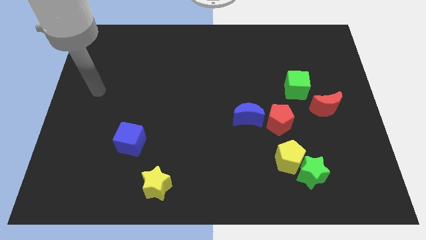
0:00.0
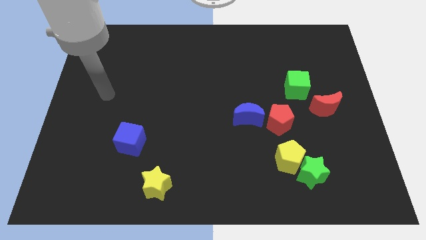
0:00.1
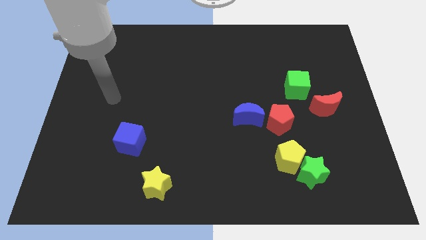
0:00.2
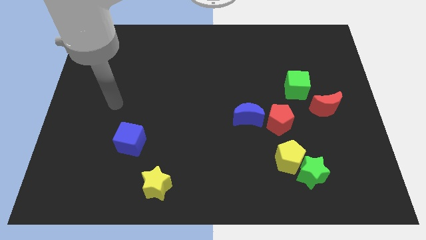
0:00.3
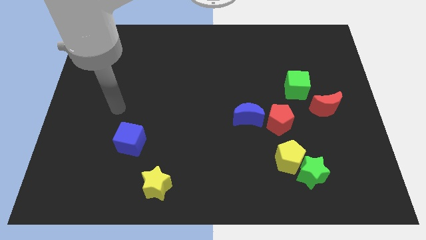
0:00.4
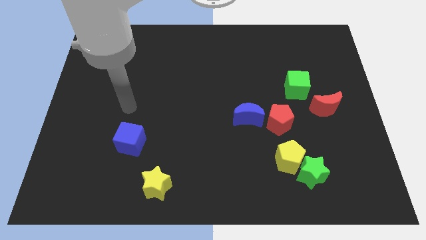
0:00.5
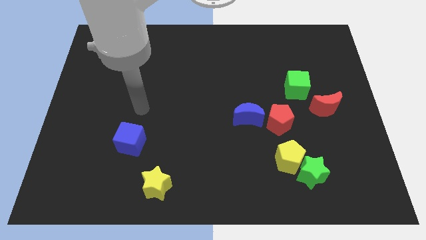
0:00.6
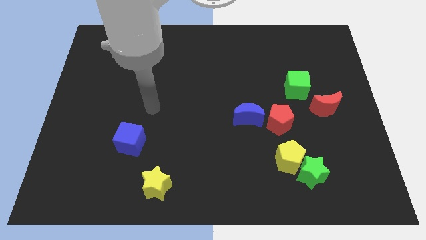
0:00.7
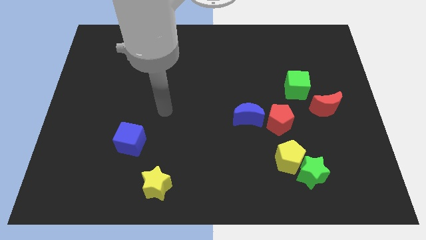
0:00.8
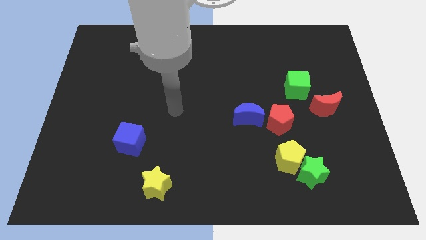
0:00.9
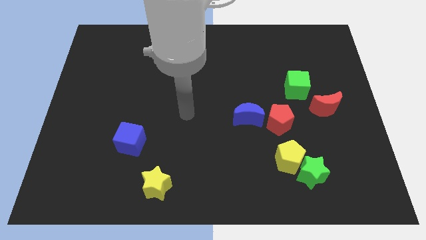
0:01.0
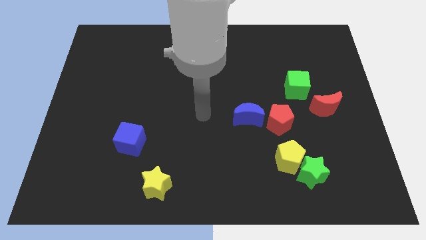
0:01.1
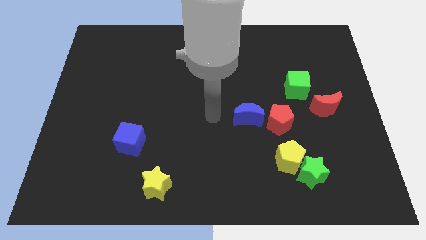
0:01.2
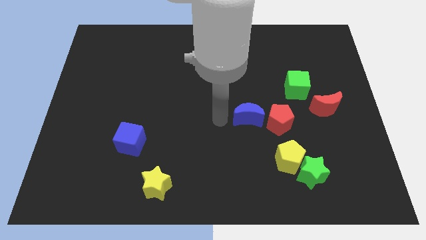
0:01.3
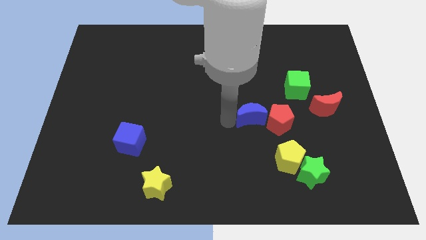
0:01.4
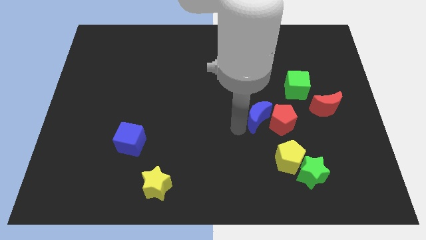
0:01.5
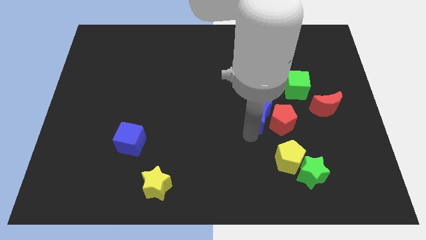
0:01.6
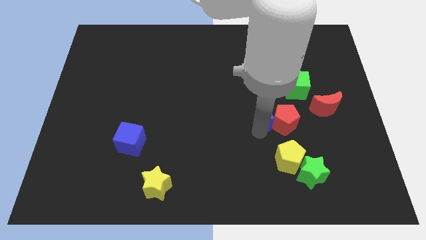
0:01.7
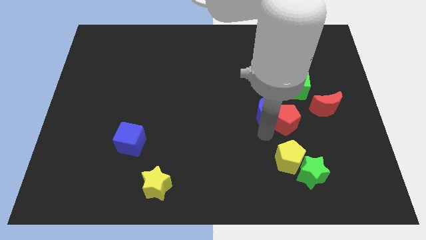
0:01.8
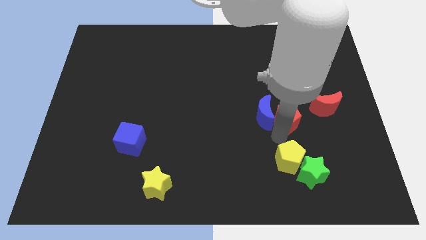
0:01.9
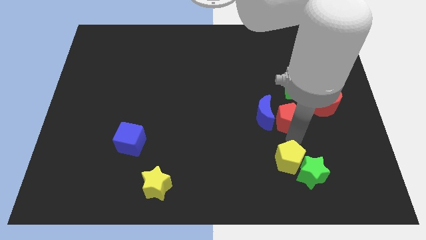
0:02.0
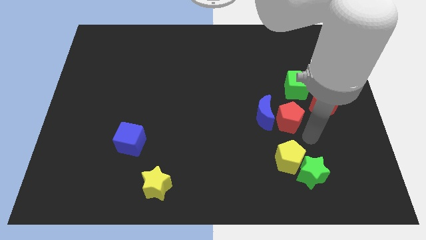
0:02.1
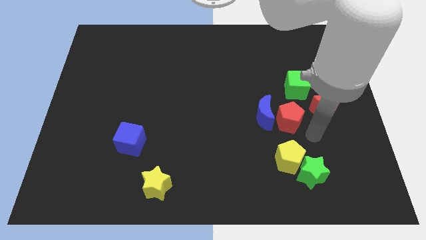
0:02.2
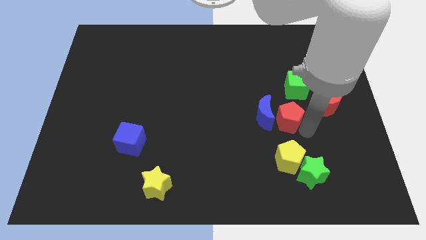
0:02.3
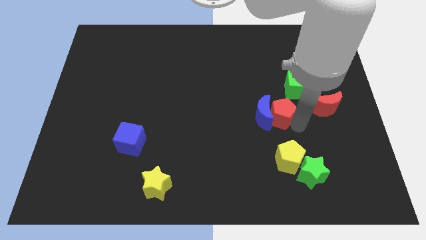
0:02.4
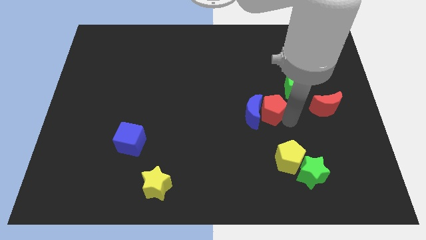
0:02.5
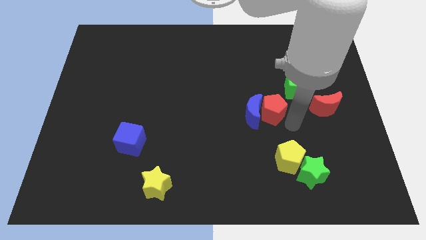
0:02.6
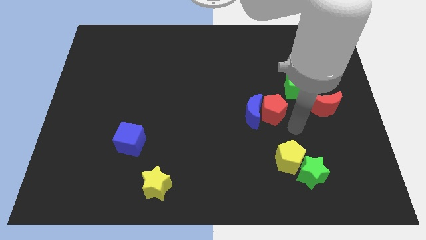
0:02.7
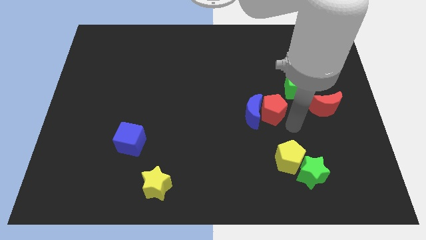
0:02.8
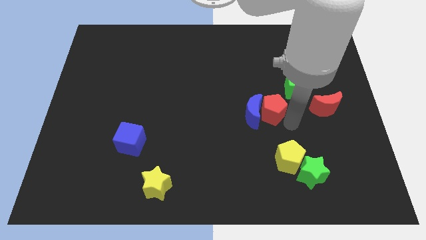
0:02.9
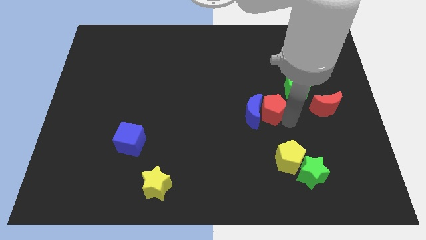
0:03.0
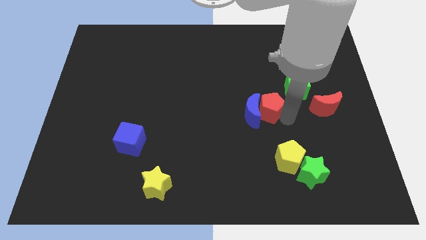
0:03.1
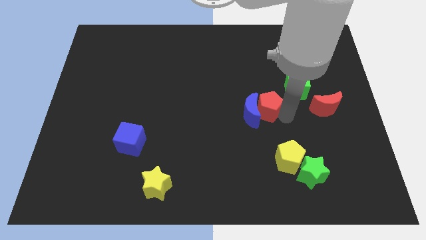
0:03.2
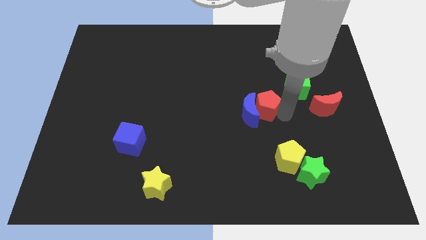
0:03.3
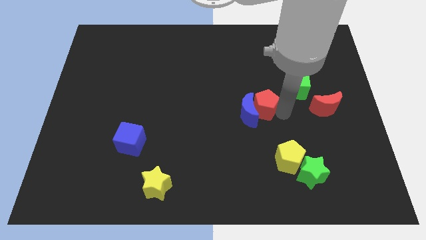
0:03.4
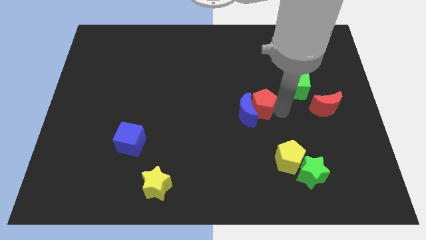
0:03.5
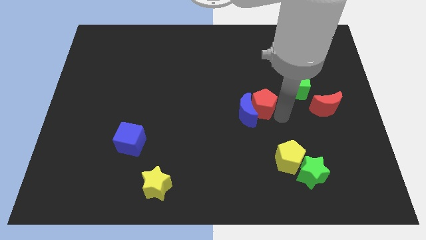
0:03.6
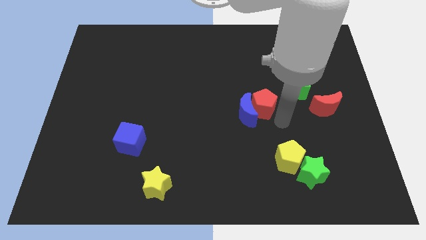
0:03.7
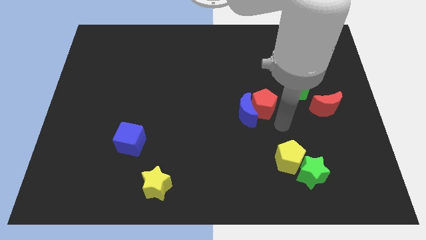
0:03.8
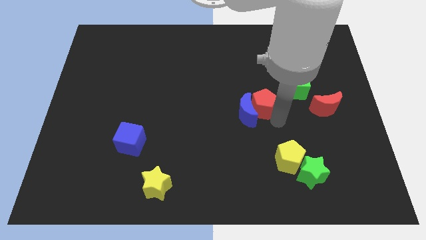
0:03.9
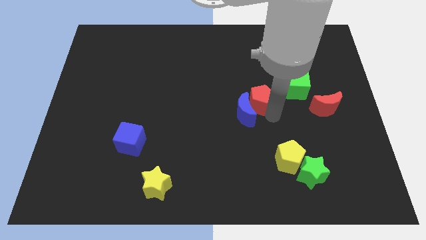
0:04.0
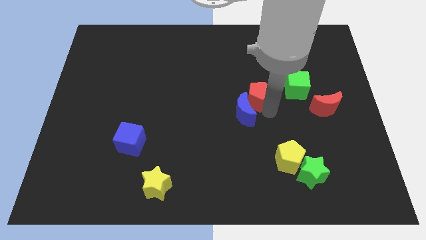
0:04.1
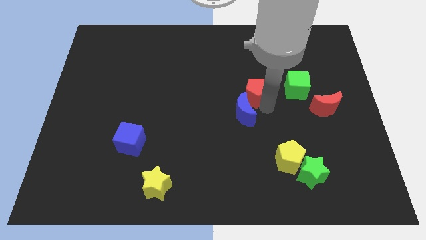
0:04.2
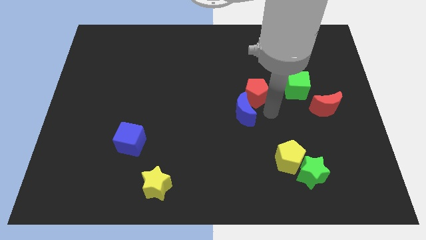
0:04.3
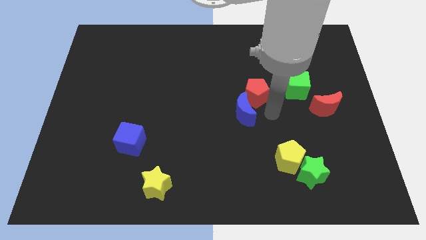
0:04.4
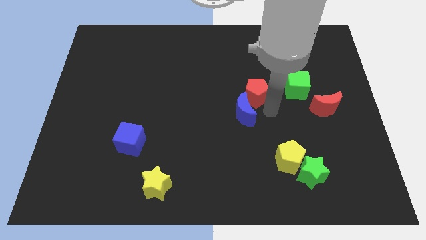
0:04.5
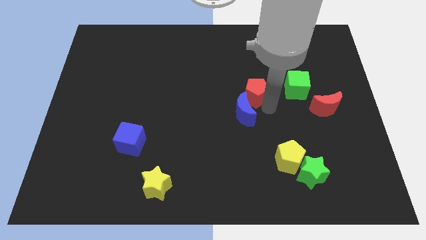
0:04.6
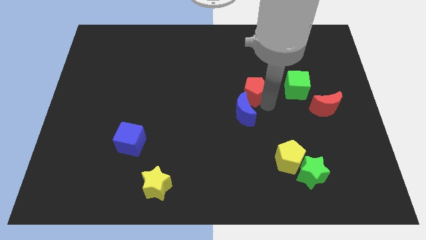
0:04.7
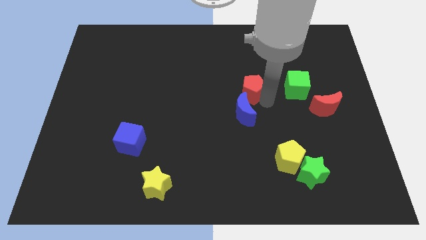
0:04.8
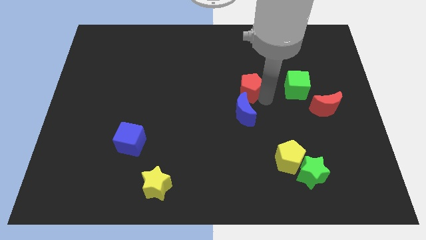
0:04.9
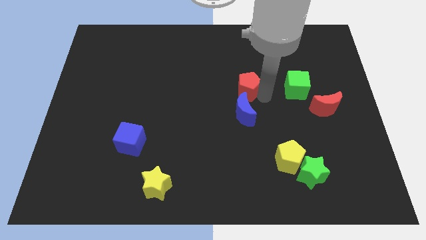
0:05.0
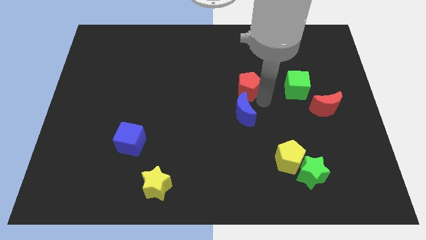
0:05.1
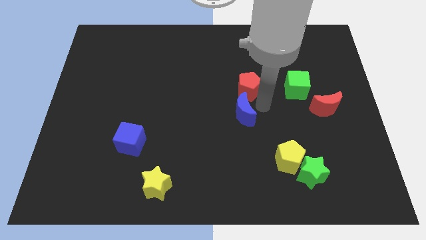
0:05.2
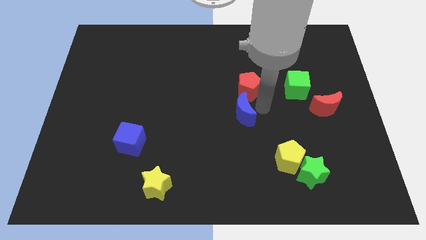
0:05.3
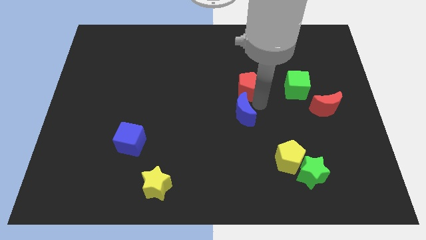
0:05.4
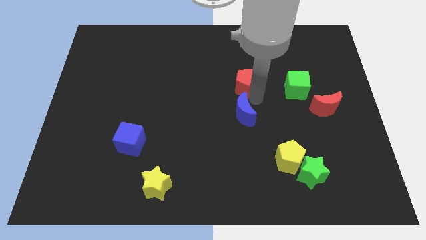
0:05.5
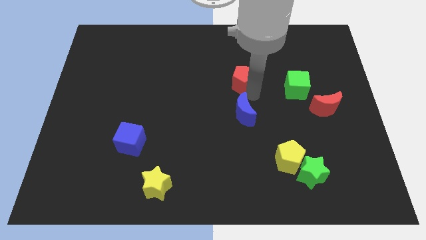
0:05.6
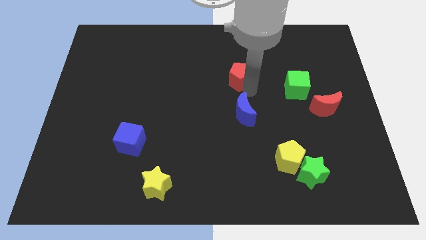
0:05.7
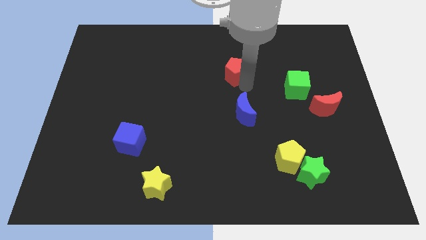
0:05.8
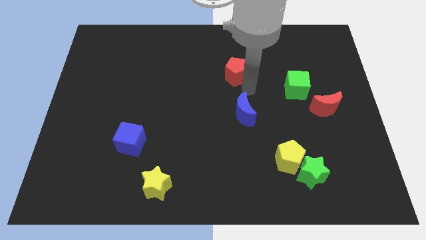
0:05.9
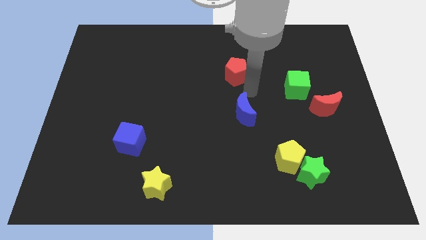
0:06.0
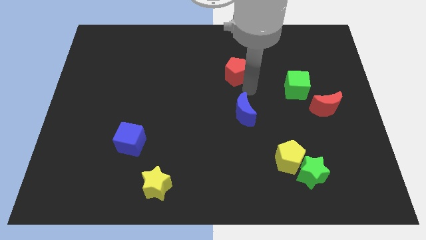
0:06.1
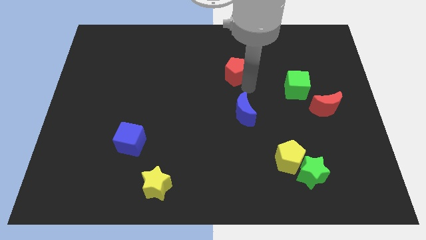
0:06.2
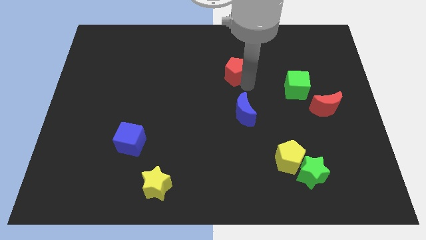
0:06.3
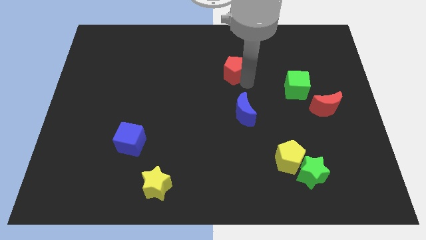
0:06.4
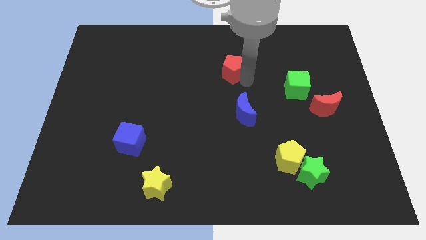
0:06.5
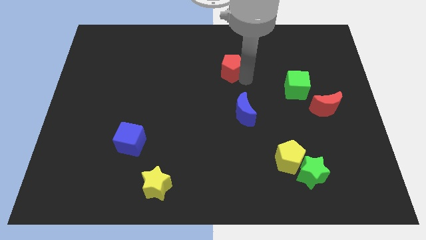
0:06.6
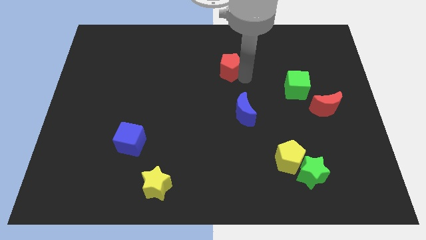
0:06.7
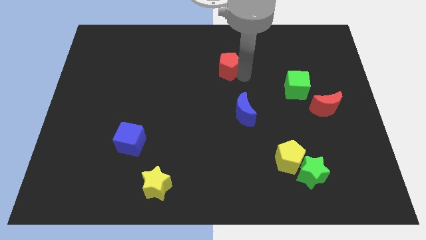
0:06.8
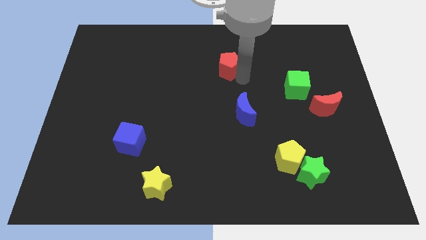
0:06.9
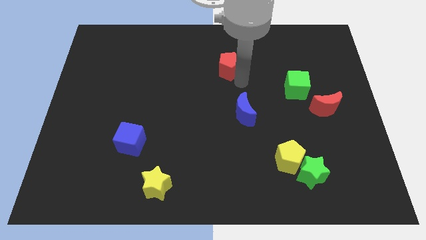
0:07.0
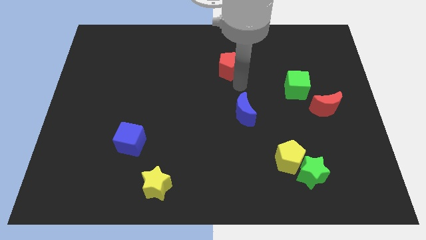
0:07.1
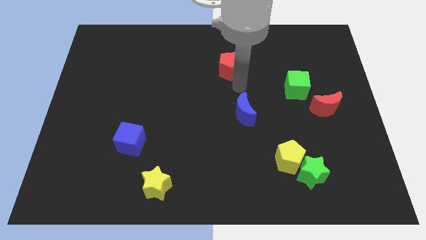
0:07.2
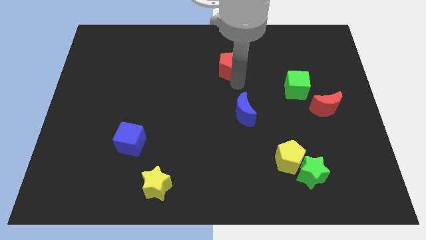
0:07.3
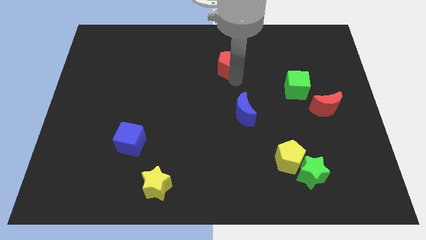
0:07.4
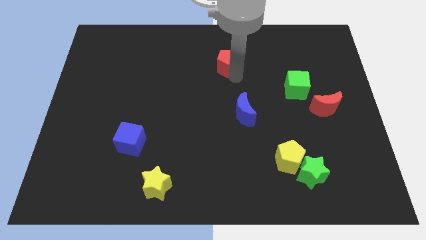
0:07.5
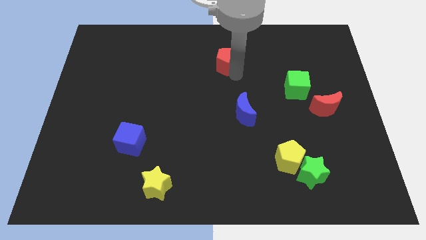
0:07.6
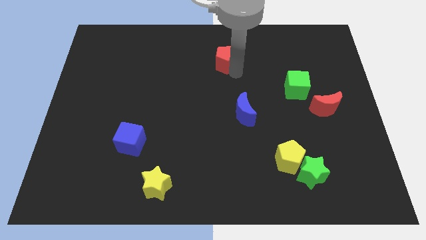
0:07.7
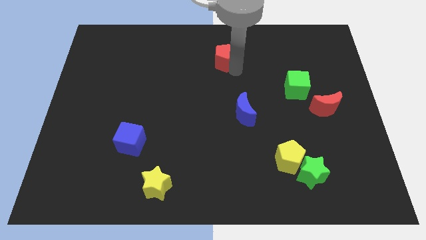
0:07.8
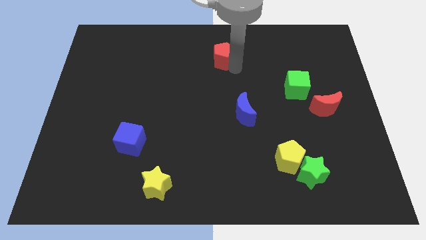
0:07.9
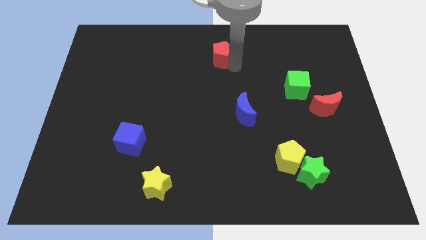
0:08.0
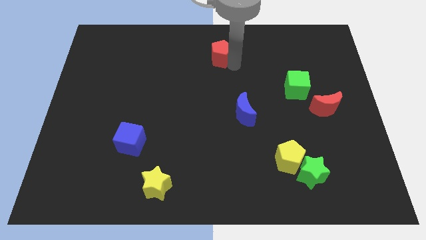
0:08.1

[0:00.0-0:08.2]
slide the red pentagon to the top side
